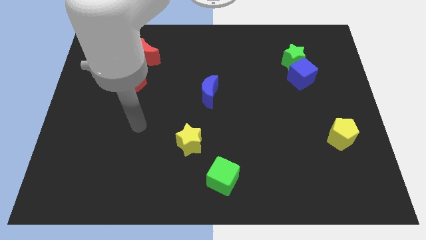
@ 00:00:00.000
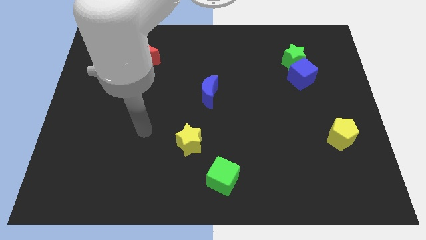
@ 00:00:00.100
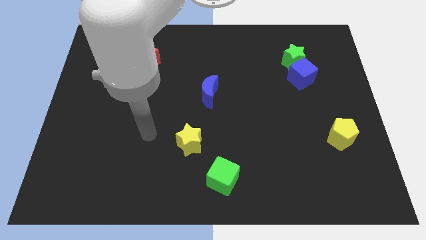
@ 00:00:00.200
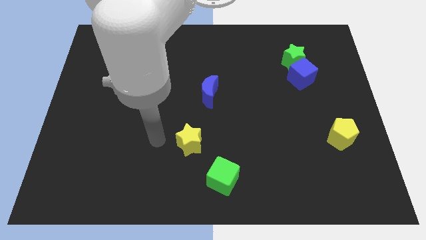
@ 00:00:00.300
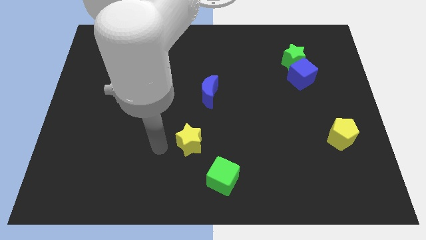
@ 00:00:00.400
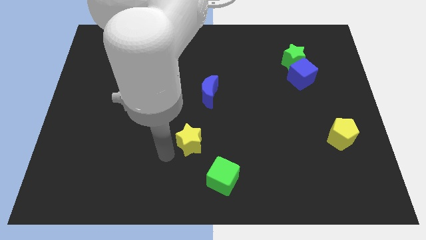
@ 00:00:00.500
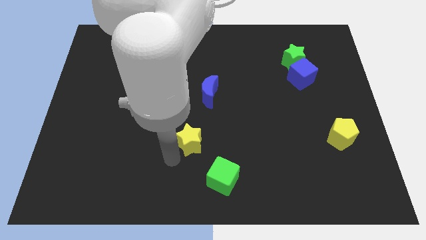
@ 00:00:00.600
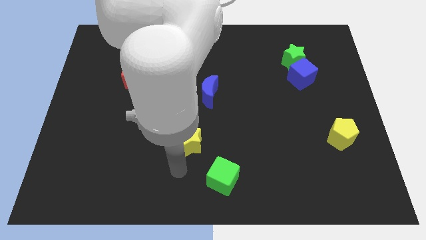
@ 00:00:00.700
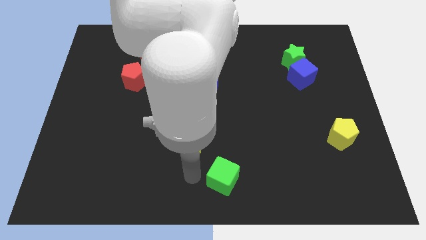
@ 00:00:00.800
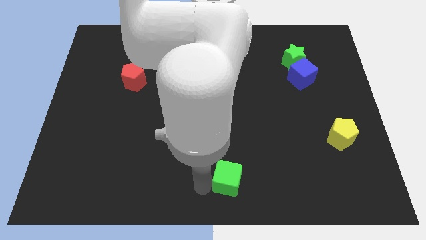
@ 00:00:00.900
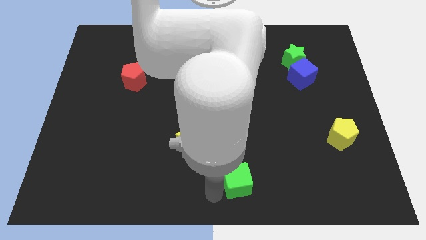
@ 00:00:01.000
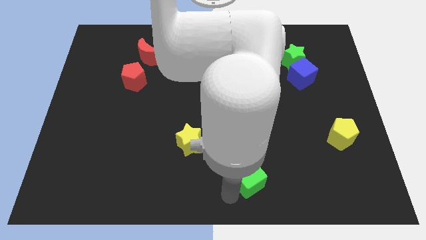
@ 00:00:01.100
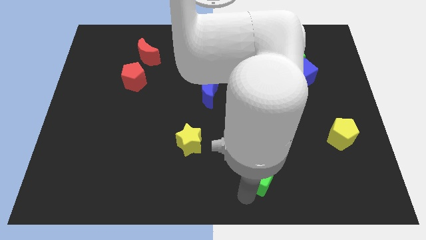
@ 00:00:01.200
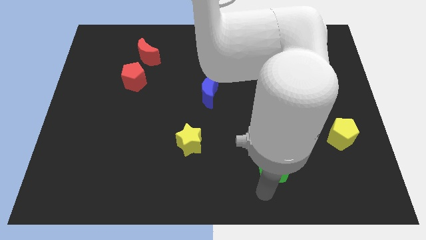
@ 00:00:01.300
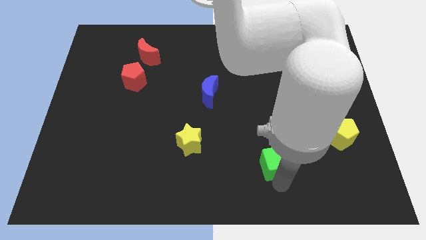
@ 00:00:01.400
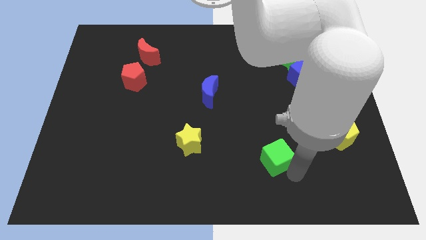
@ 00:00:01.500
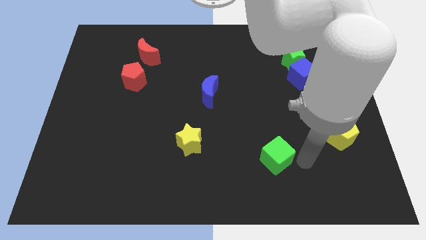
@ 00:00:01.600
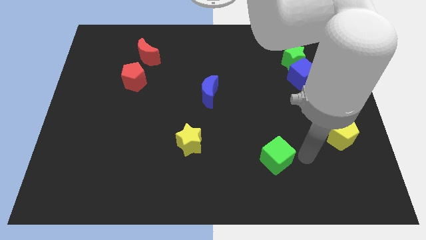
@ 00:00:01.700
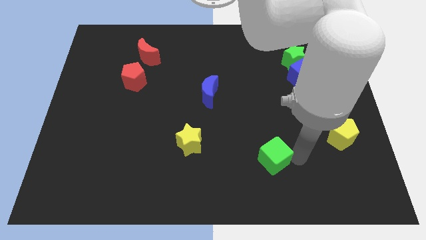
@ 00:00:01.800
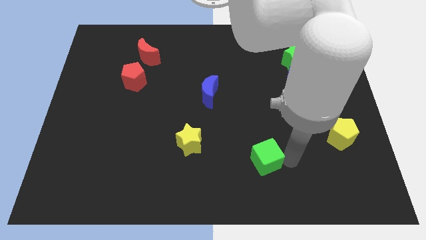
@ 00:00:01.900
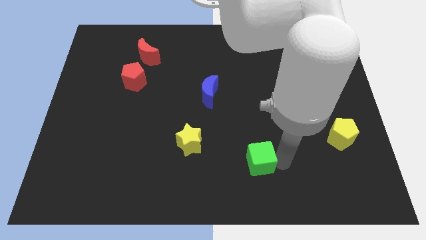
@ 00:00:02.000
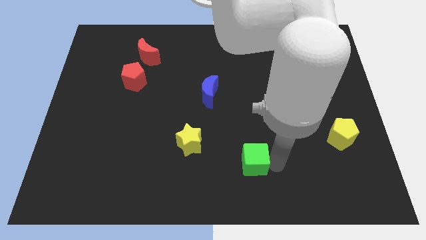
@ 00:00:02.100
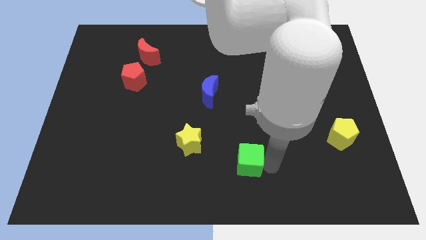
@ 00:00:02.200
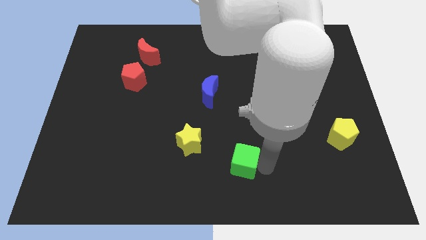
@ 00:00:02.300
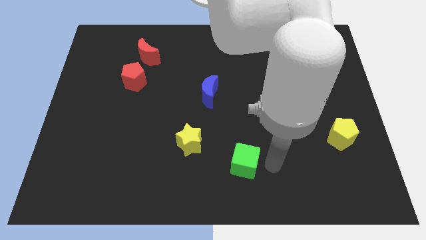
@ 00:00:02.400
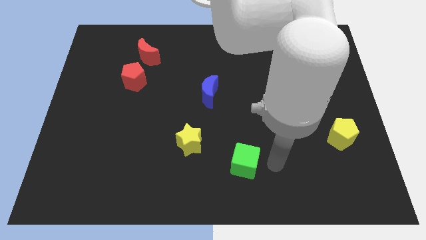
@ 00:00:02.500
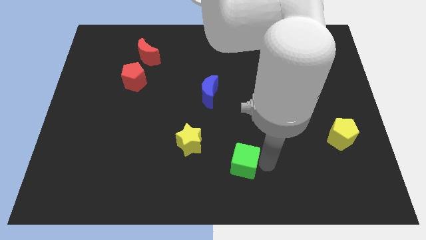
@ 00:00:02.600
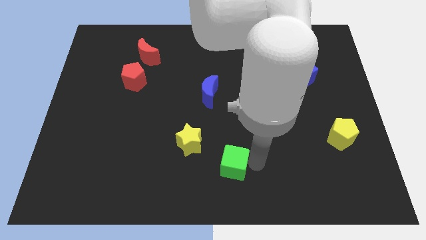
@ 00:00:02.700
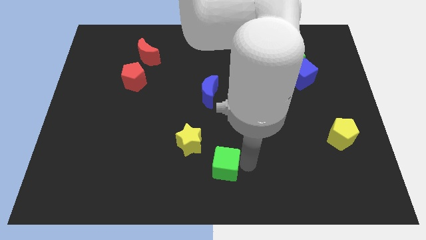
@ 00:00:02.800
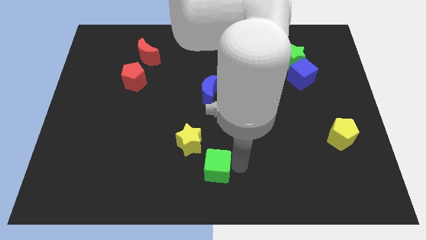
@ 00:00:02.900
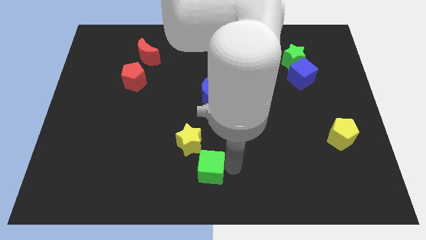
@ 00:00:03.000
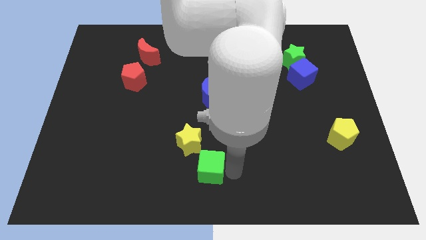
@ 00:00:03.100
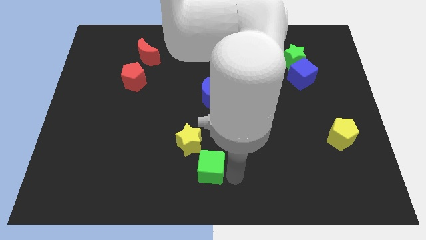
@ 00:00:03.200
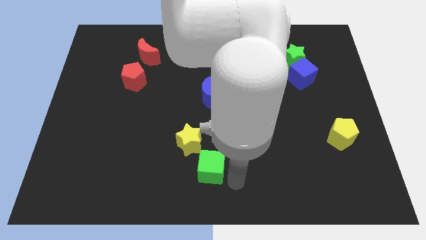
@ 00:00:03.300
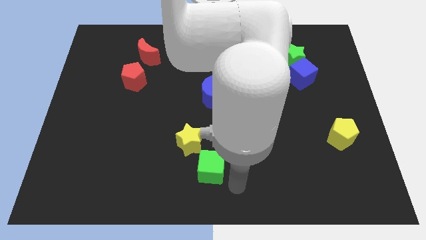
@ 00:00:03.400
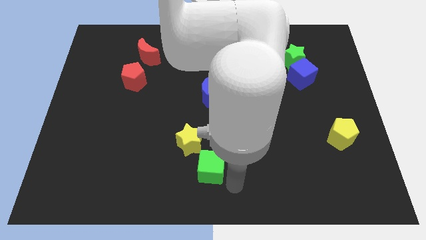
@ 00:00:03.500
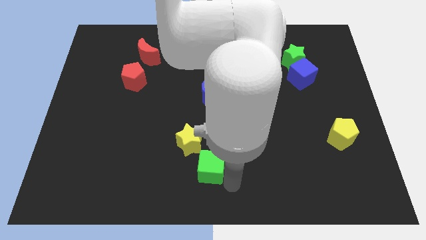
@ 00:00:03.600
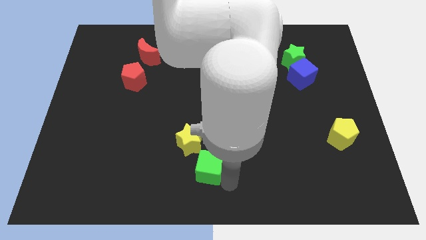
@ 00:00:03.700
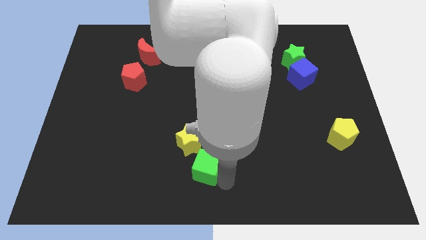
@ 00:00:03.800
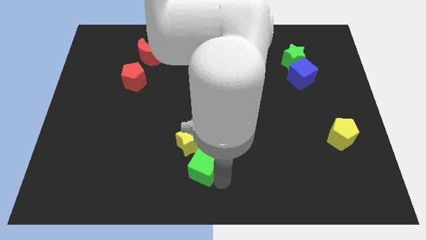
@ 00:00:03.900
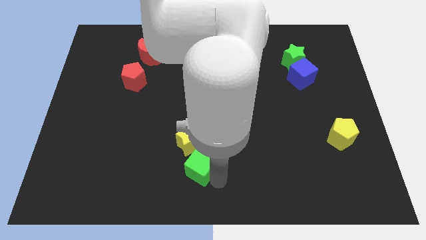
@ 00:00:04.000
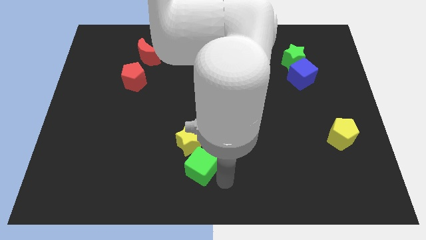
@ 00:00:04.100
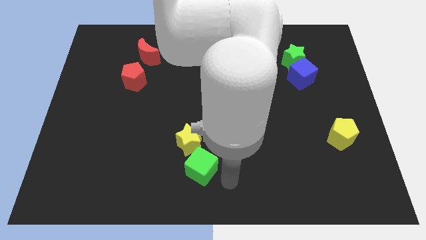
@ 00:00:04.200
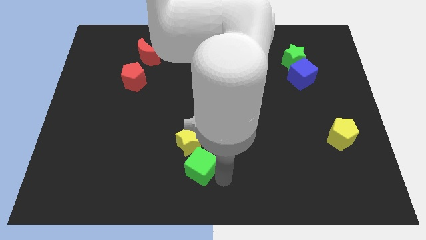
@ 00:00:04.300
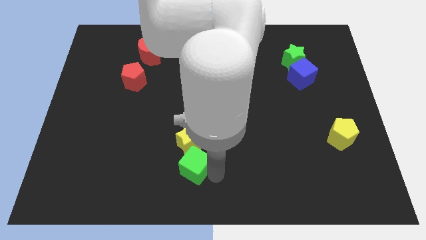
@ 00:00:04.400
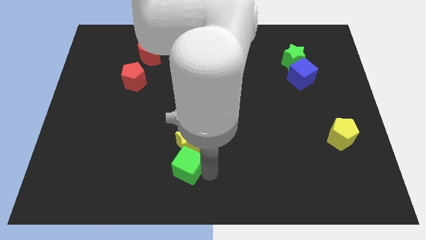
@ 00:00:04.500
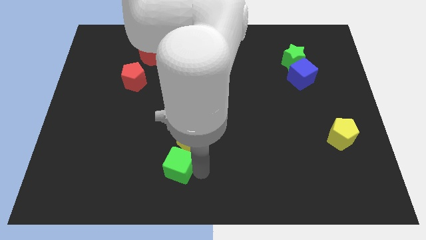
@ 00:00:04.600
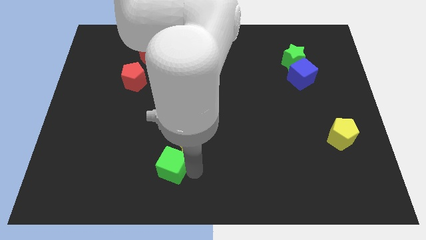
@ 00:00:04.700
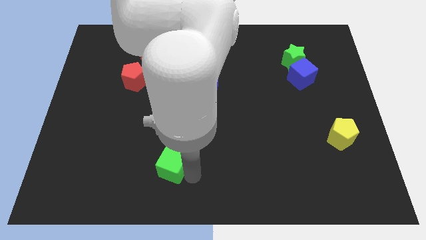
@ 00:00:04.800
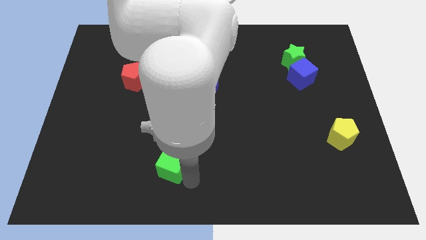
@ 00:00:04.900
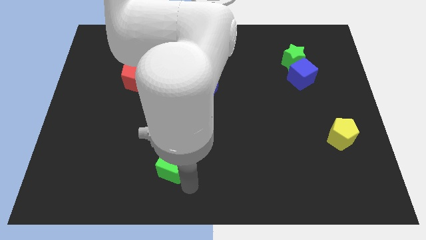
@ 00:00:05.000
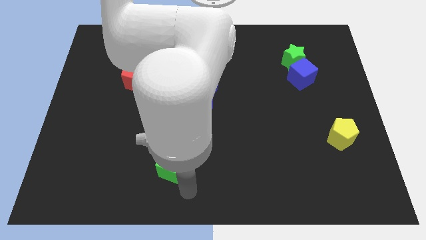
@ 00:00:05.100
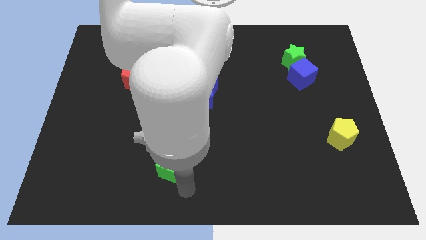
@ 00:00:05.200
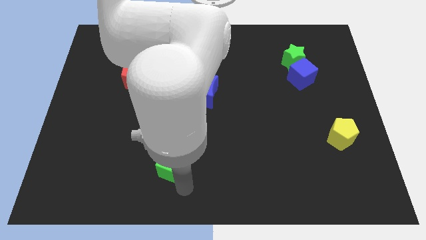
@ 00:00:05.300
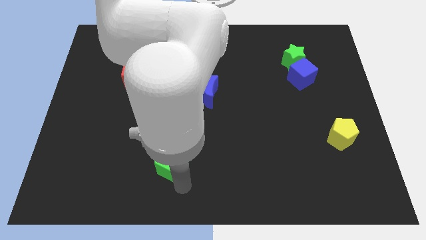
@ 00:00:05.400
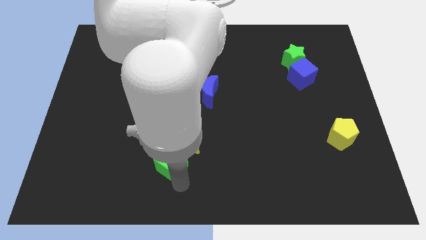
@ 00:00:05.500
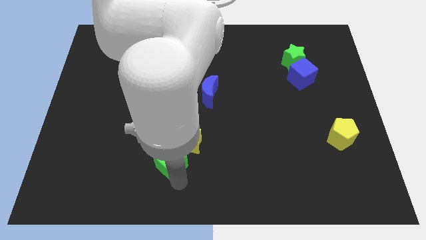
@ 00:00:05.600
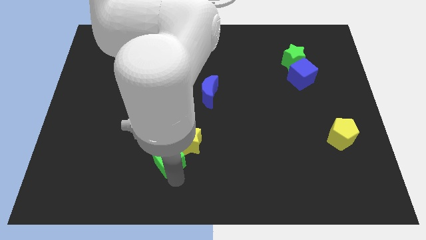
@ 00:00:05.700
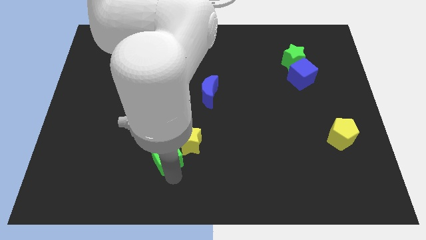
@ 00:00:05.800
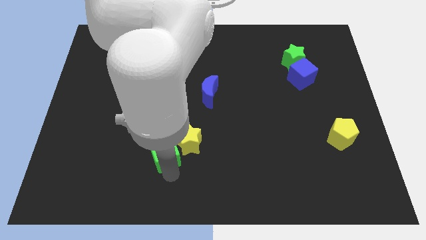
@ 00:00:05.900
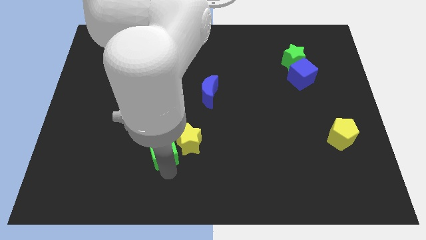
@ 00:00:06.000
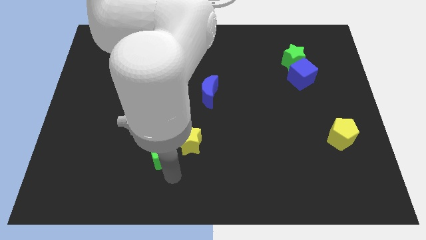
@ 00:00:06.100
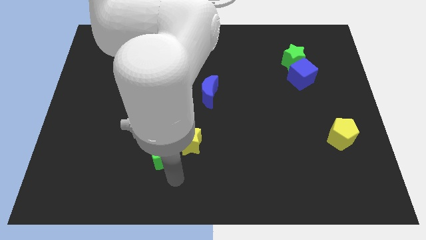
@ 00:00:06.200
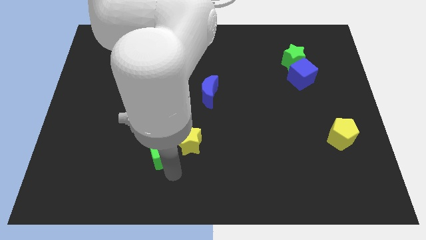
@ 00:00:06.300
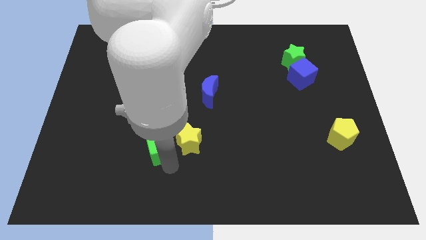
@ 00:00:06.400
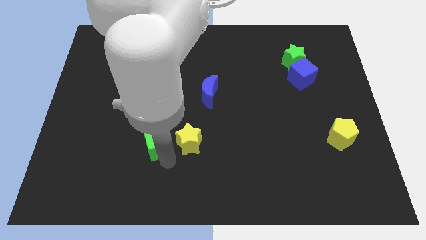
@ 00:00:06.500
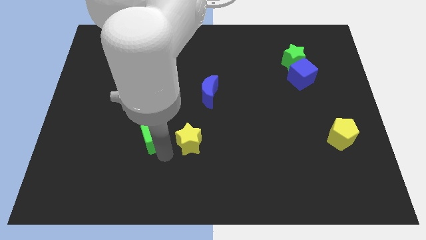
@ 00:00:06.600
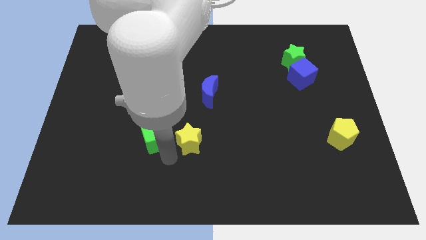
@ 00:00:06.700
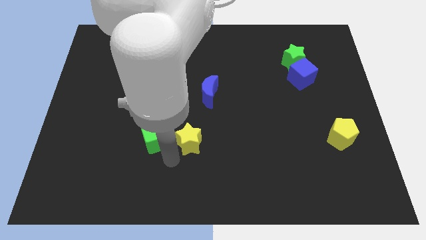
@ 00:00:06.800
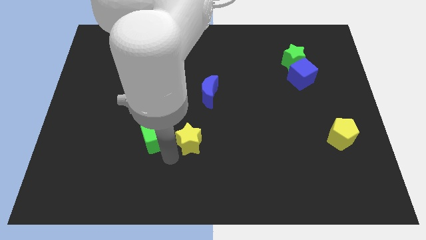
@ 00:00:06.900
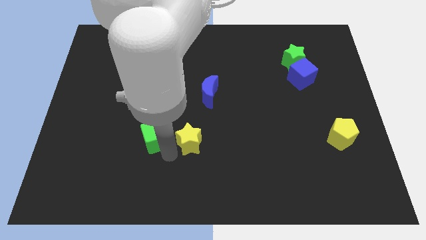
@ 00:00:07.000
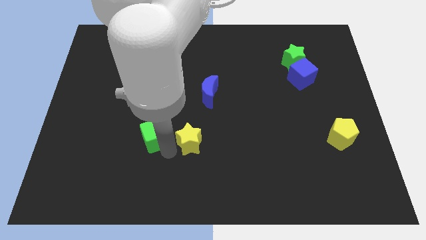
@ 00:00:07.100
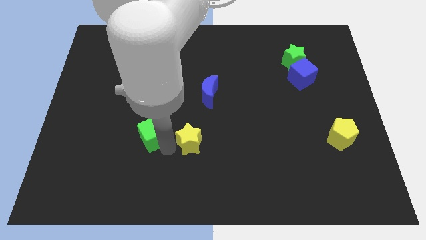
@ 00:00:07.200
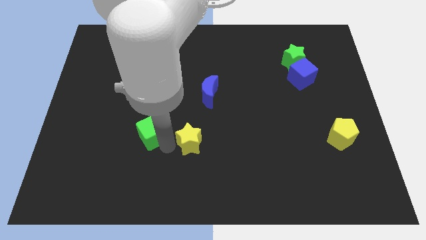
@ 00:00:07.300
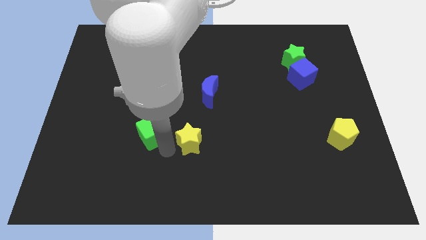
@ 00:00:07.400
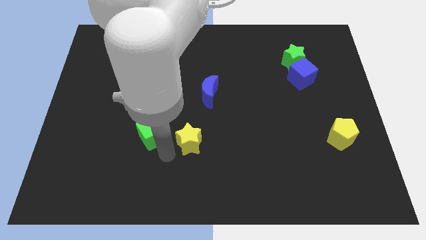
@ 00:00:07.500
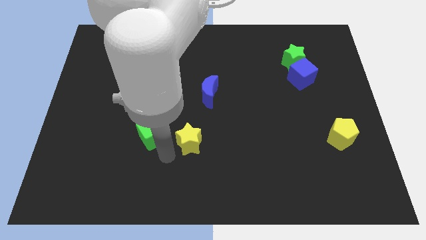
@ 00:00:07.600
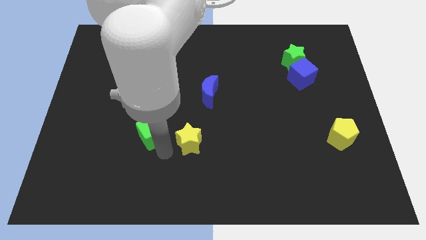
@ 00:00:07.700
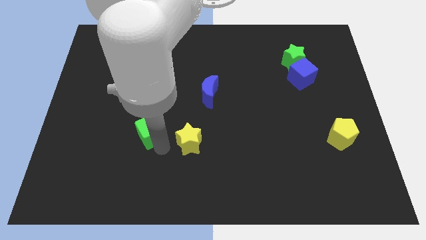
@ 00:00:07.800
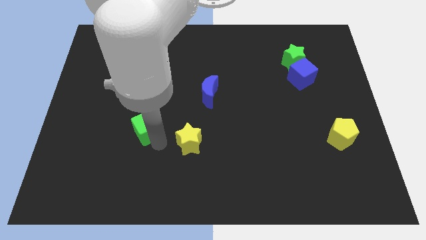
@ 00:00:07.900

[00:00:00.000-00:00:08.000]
slide the green cube up and left
